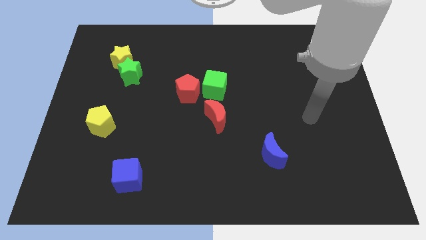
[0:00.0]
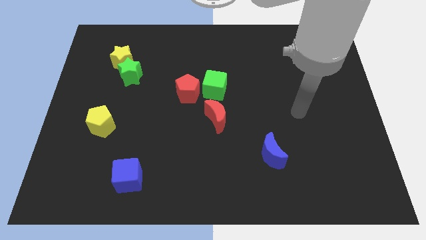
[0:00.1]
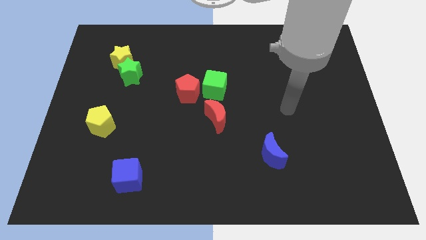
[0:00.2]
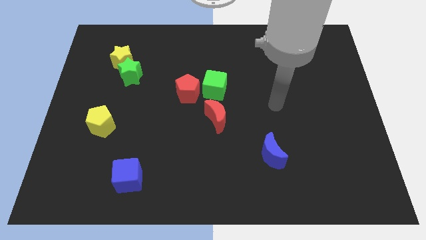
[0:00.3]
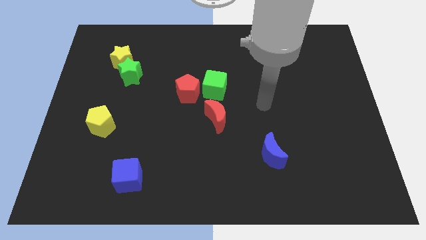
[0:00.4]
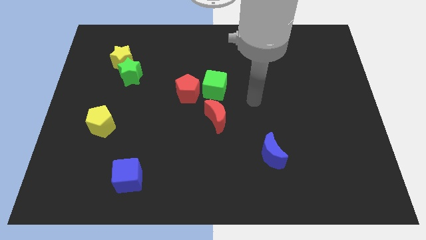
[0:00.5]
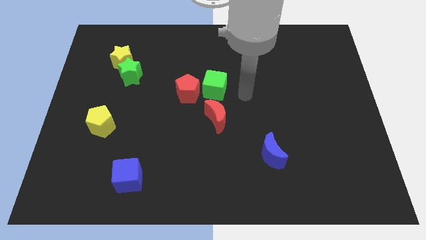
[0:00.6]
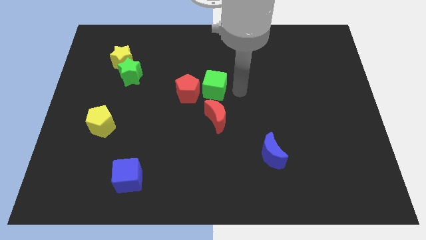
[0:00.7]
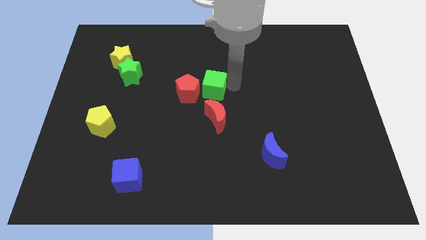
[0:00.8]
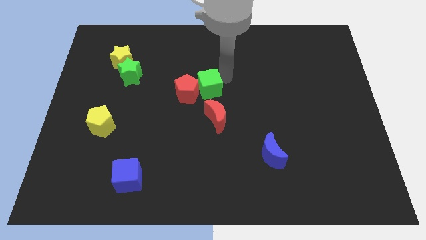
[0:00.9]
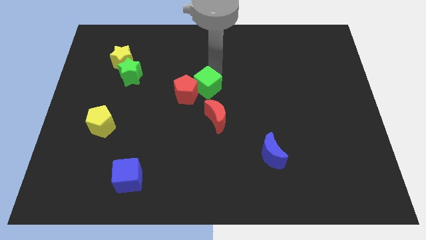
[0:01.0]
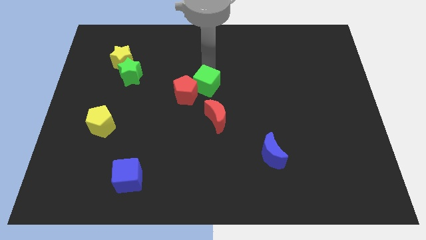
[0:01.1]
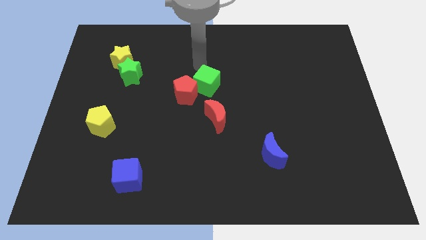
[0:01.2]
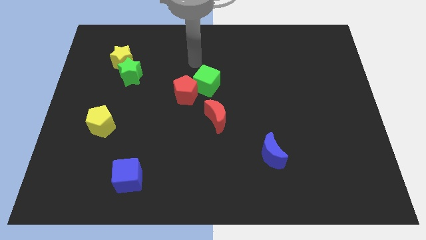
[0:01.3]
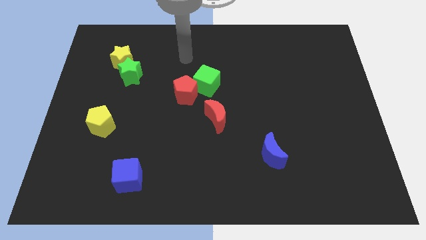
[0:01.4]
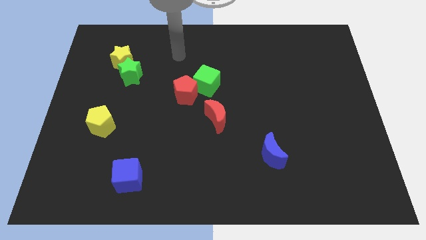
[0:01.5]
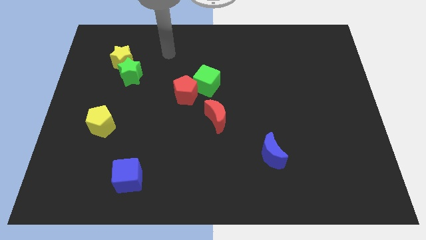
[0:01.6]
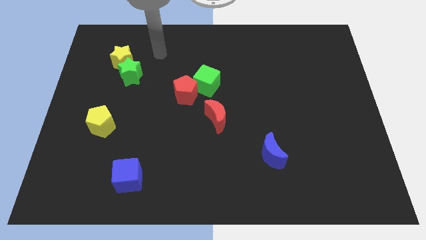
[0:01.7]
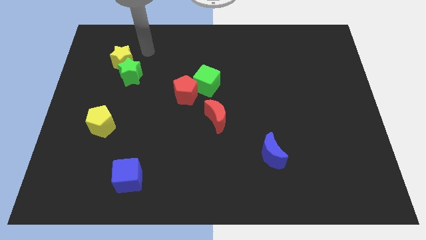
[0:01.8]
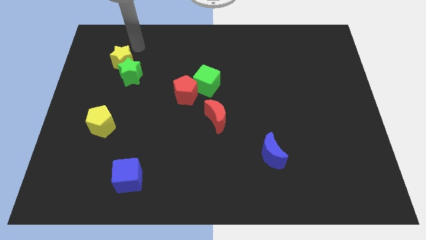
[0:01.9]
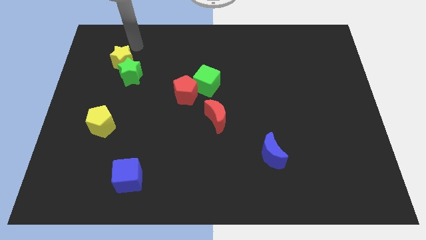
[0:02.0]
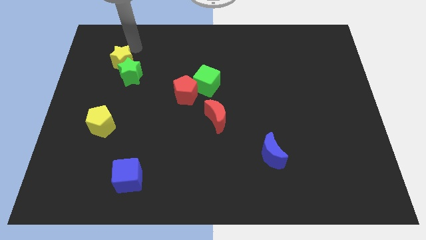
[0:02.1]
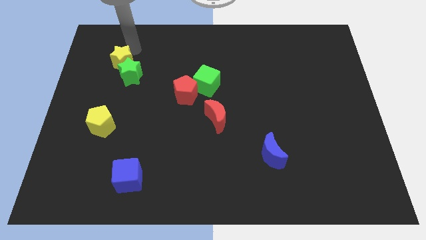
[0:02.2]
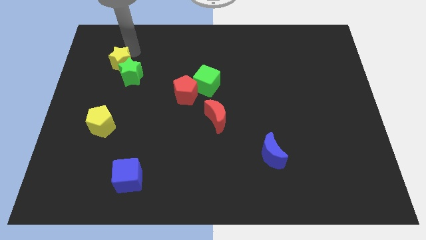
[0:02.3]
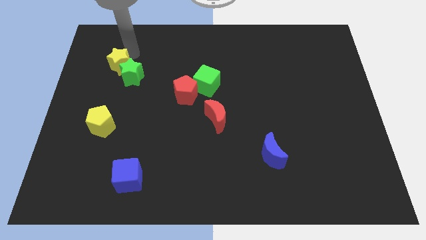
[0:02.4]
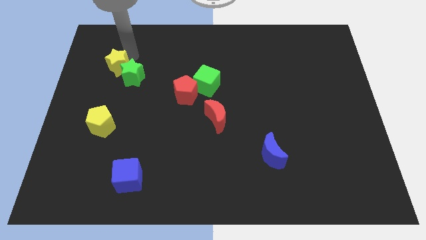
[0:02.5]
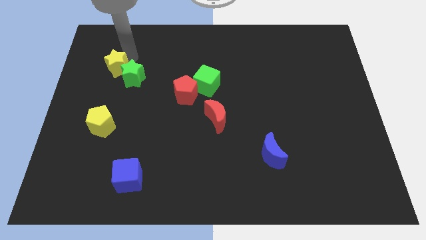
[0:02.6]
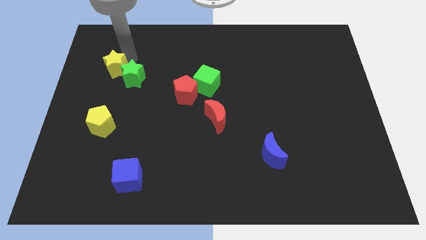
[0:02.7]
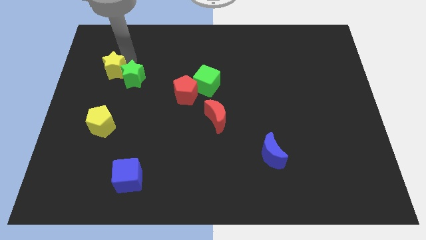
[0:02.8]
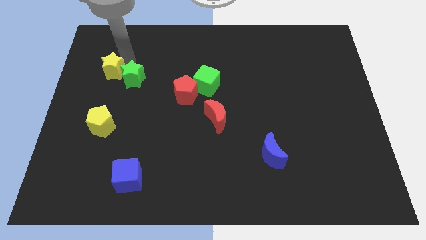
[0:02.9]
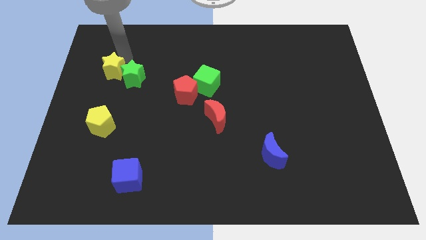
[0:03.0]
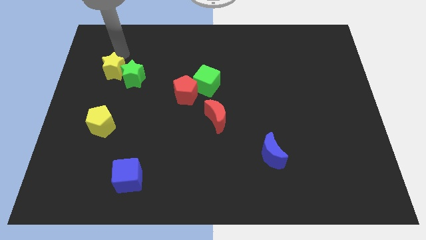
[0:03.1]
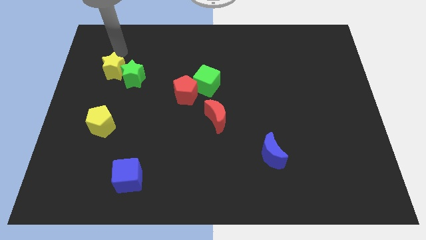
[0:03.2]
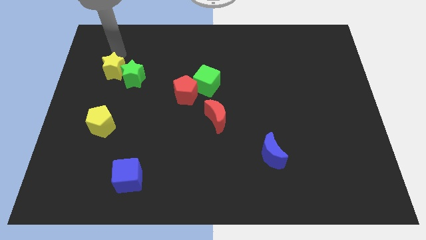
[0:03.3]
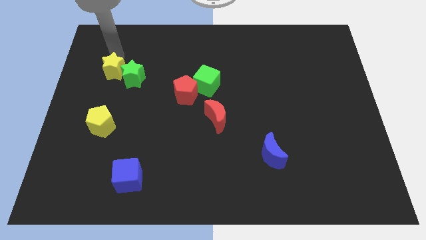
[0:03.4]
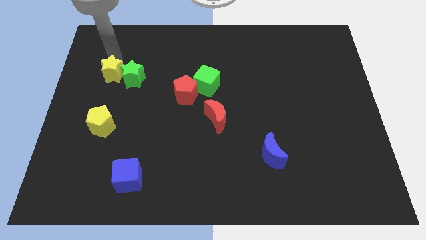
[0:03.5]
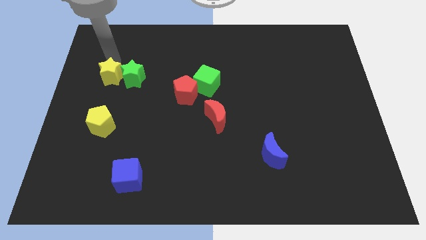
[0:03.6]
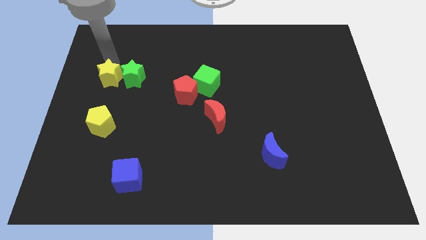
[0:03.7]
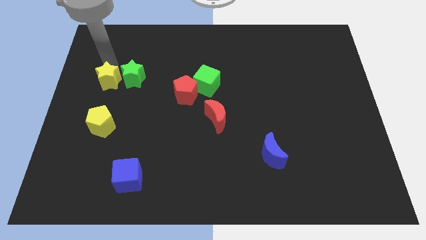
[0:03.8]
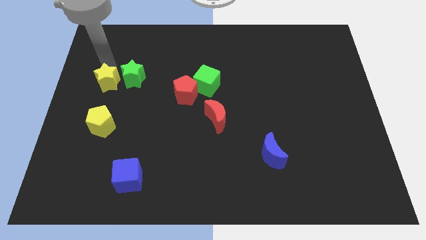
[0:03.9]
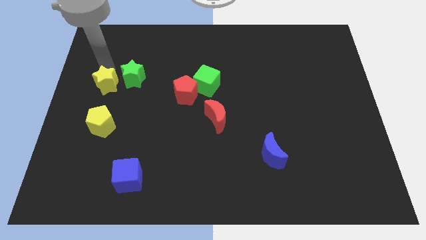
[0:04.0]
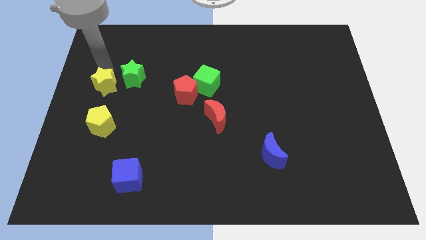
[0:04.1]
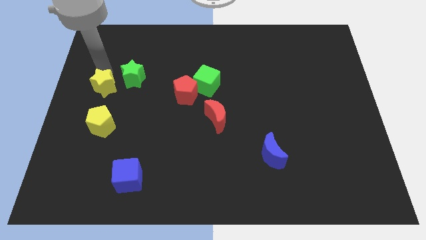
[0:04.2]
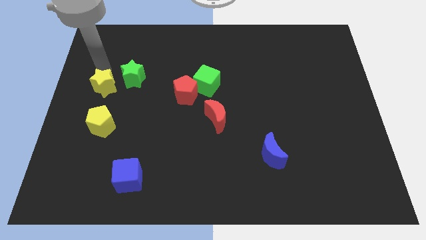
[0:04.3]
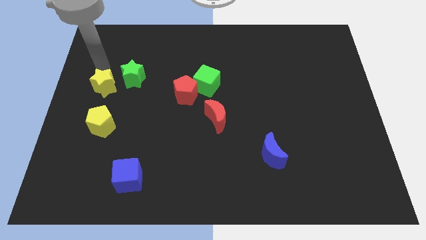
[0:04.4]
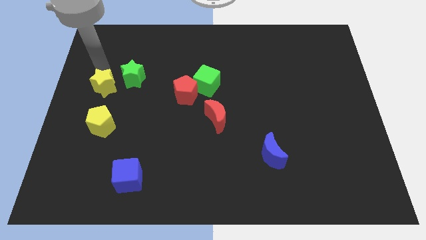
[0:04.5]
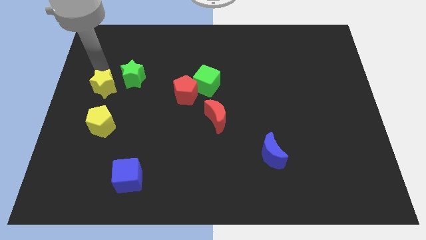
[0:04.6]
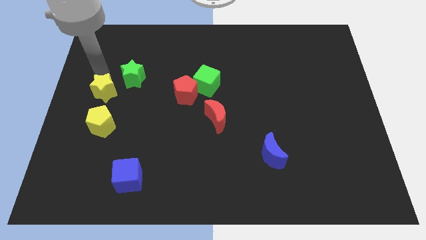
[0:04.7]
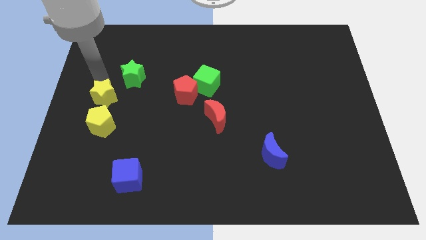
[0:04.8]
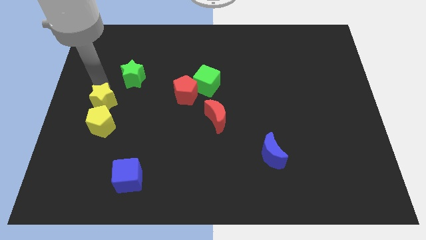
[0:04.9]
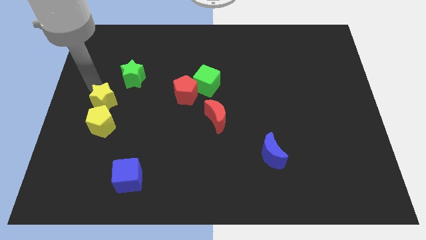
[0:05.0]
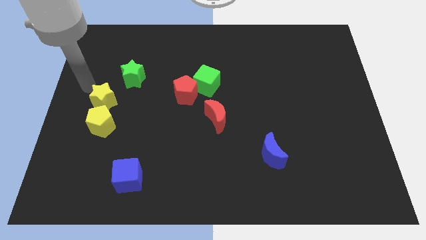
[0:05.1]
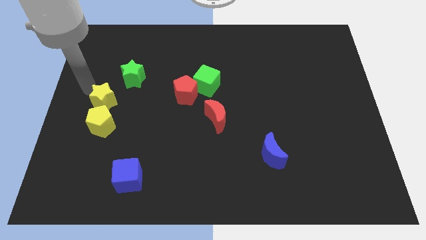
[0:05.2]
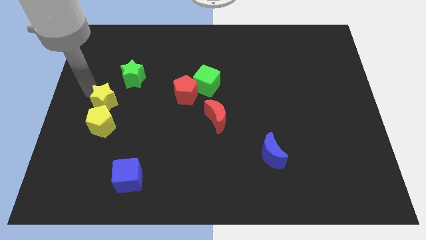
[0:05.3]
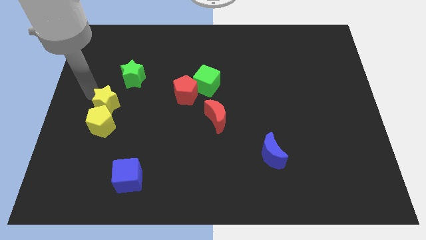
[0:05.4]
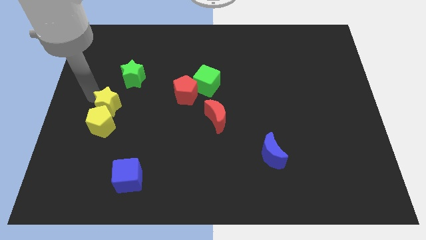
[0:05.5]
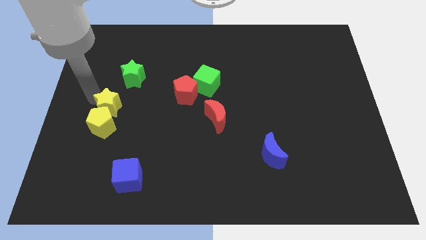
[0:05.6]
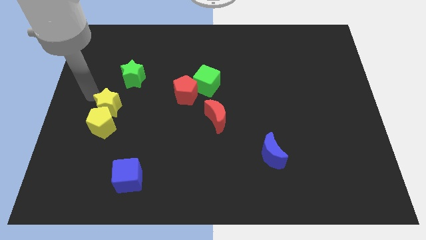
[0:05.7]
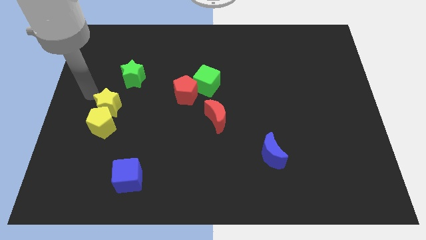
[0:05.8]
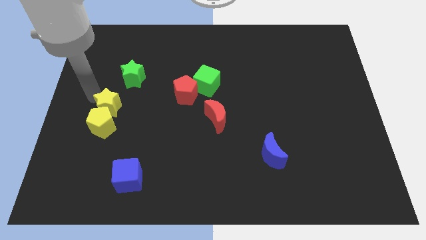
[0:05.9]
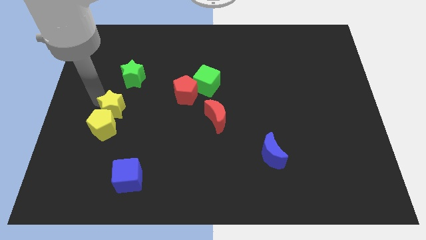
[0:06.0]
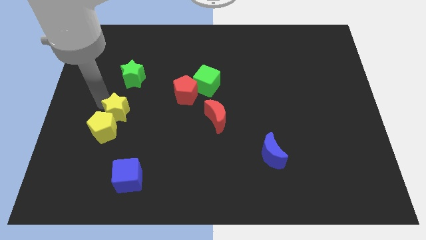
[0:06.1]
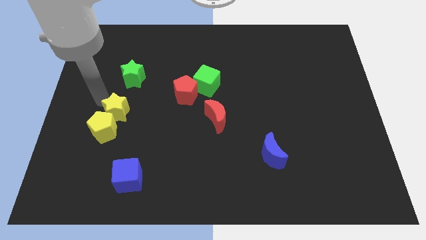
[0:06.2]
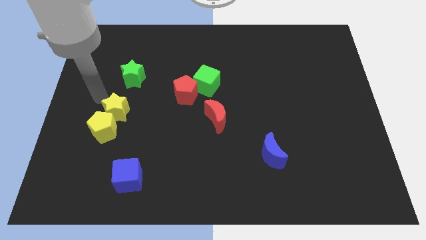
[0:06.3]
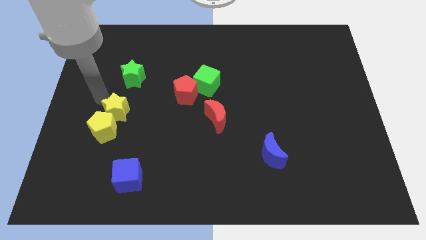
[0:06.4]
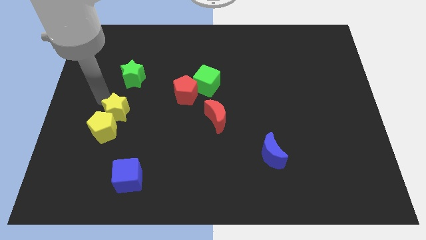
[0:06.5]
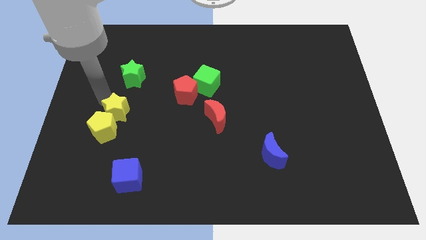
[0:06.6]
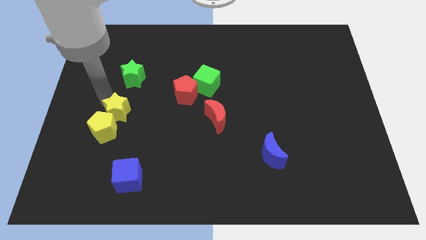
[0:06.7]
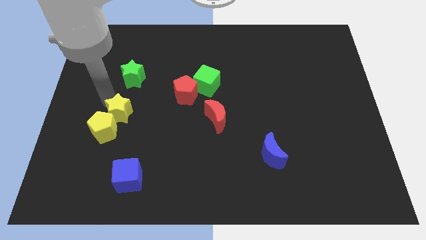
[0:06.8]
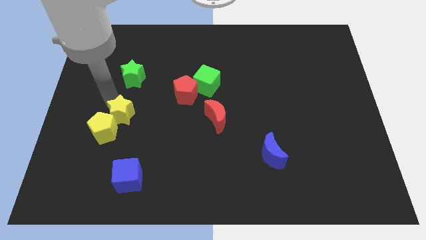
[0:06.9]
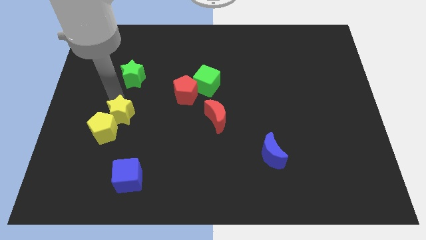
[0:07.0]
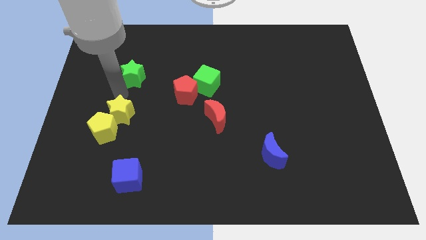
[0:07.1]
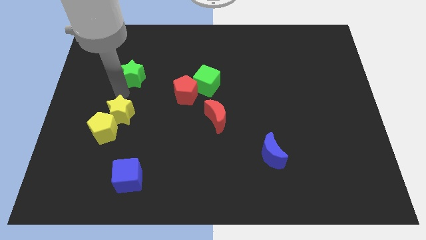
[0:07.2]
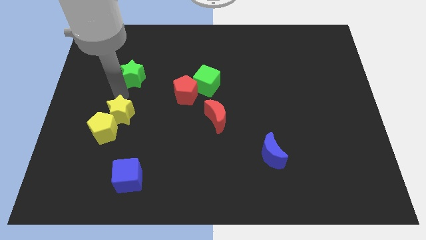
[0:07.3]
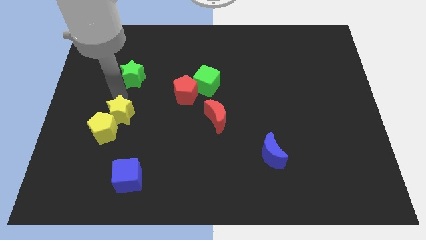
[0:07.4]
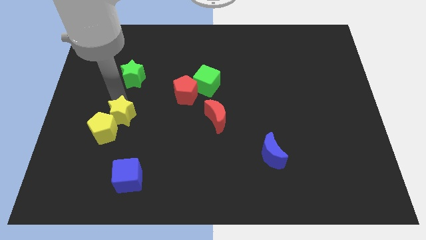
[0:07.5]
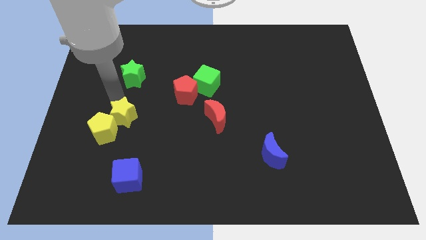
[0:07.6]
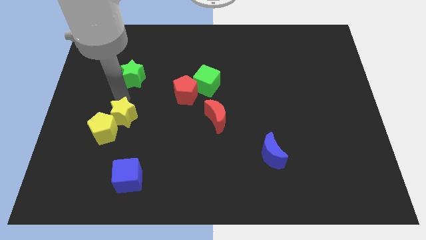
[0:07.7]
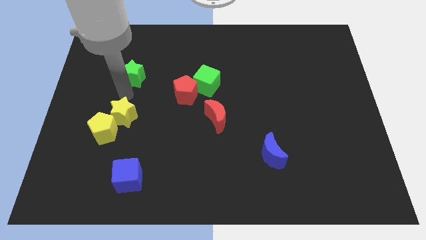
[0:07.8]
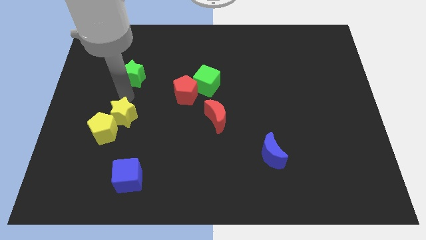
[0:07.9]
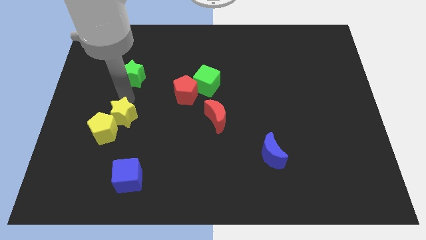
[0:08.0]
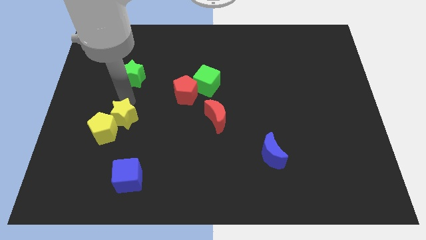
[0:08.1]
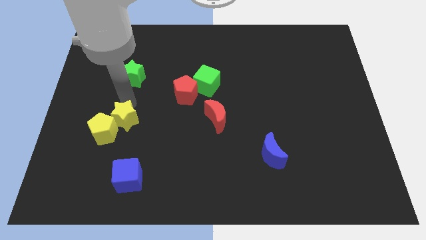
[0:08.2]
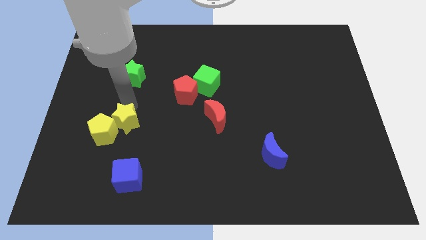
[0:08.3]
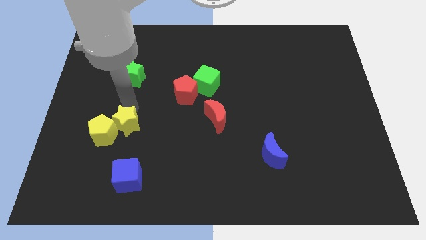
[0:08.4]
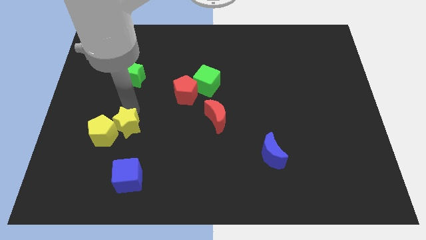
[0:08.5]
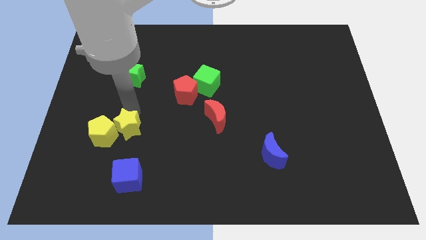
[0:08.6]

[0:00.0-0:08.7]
push the yellow star down
